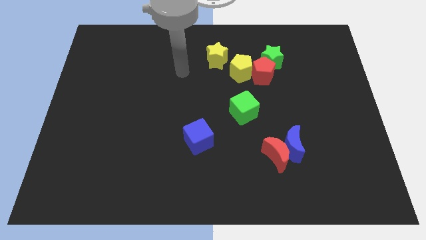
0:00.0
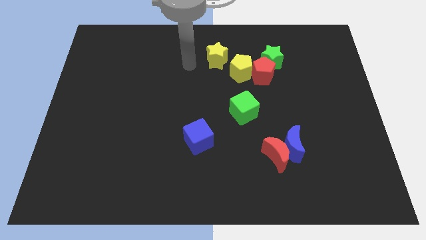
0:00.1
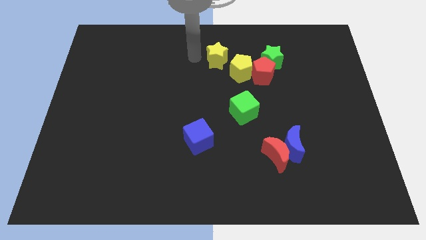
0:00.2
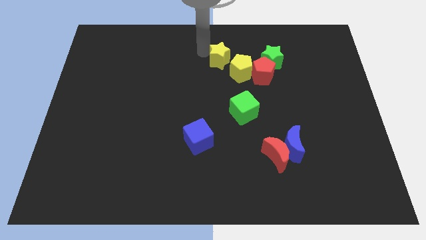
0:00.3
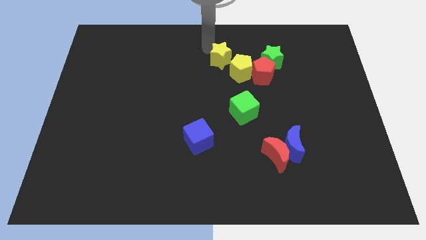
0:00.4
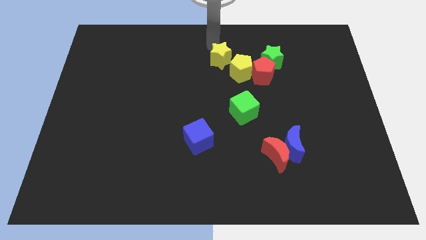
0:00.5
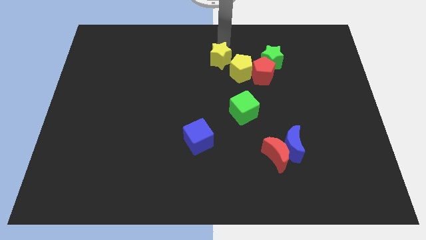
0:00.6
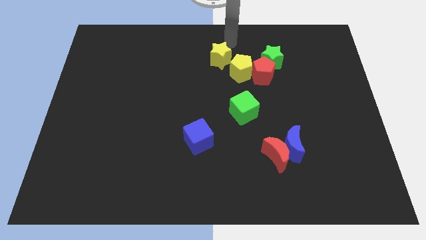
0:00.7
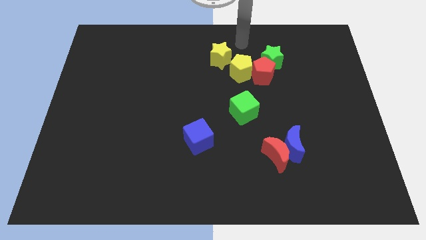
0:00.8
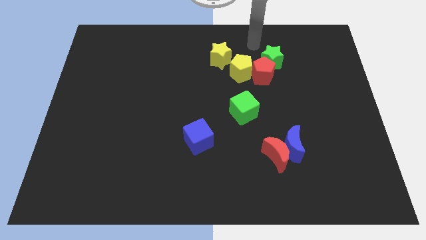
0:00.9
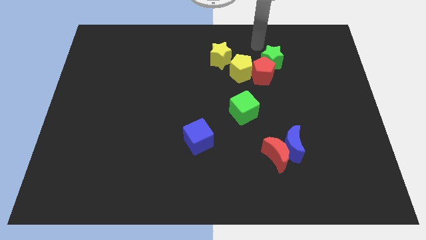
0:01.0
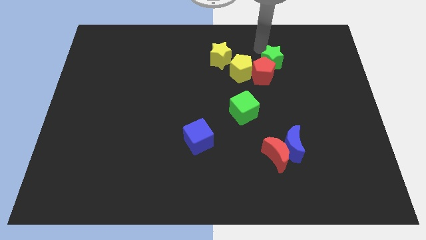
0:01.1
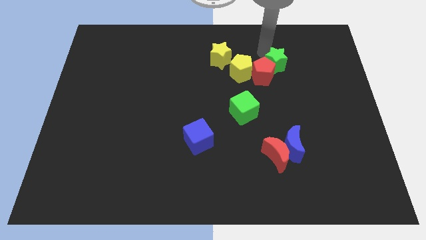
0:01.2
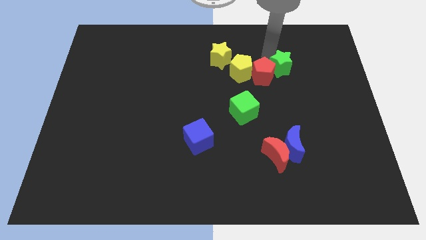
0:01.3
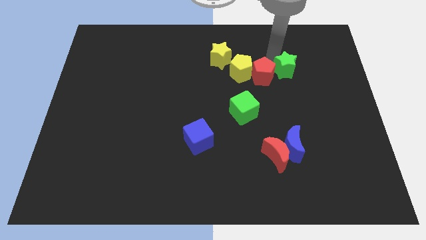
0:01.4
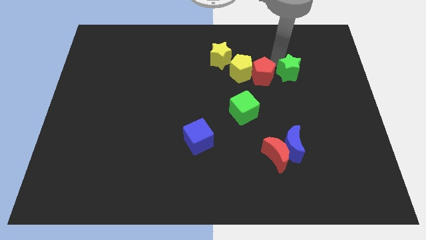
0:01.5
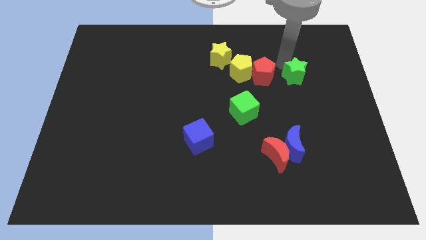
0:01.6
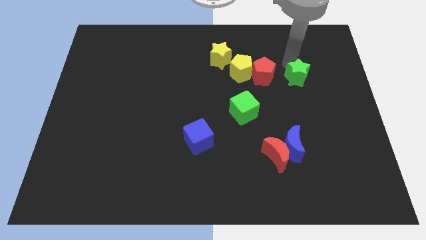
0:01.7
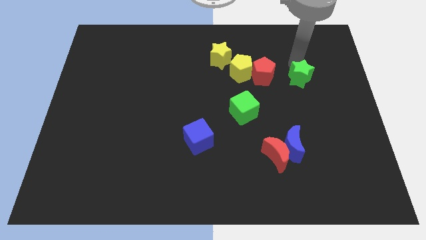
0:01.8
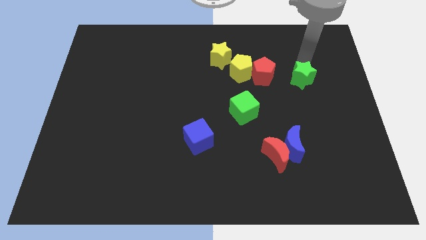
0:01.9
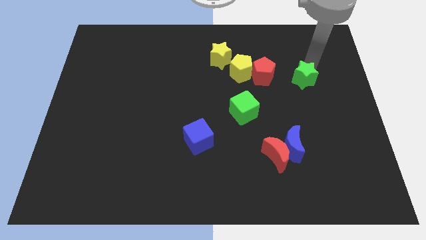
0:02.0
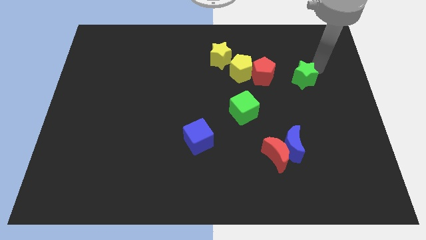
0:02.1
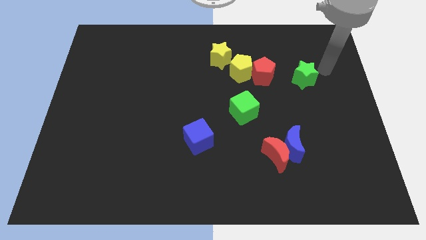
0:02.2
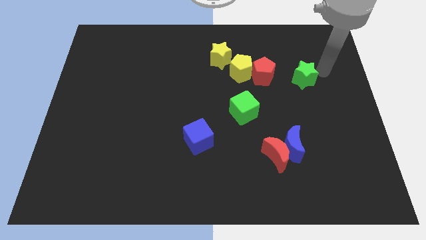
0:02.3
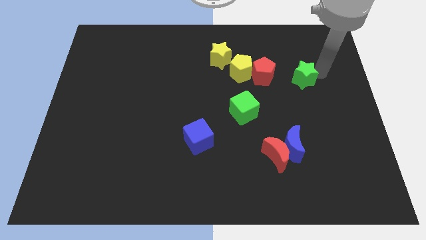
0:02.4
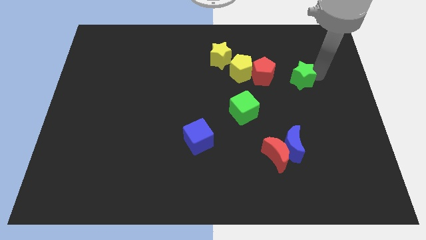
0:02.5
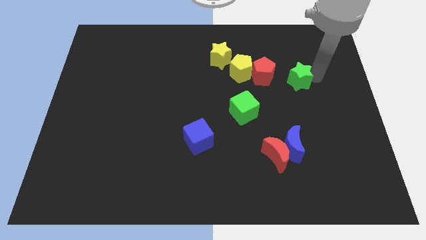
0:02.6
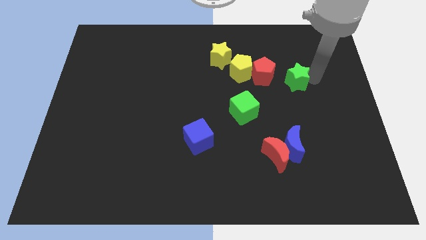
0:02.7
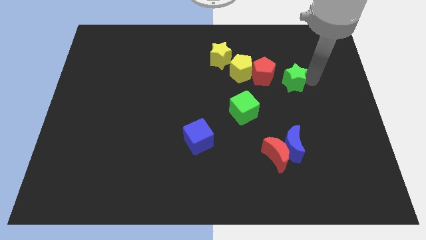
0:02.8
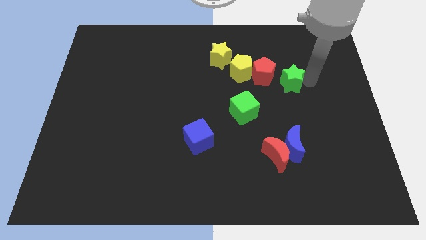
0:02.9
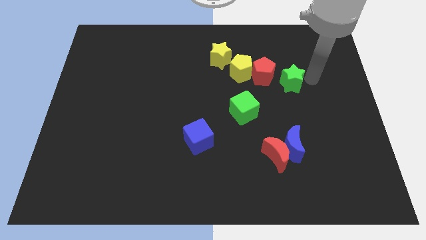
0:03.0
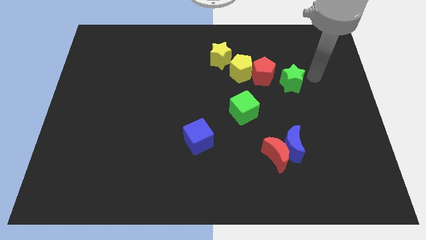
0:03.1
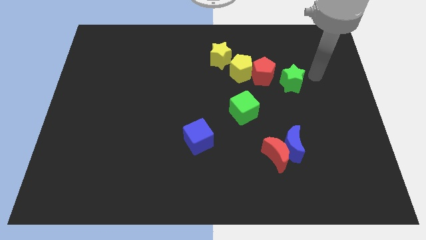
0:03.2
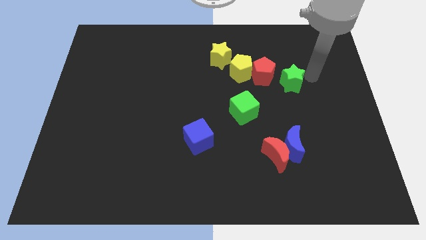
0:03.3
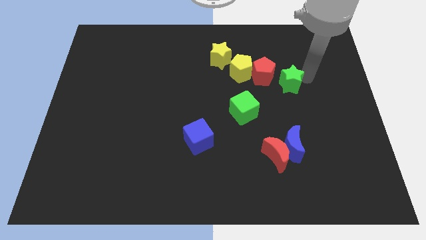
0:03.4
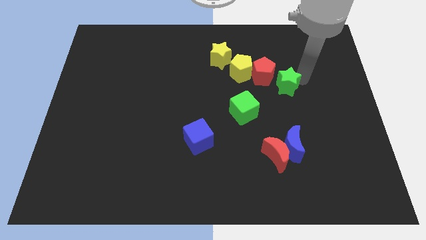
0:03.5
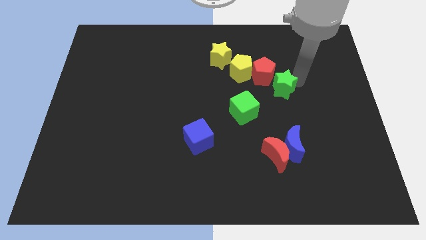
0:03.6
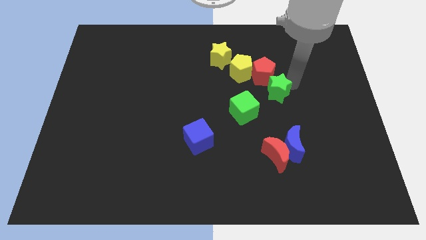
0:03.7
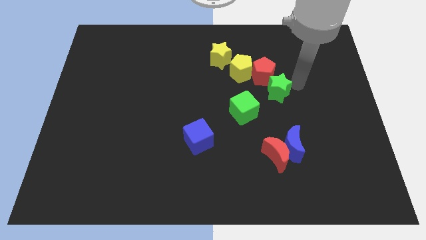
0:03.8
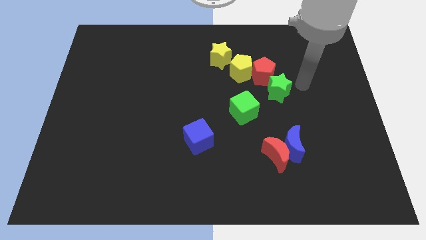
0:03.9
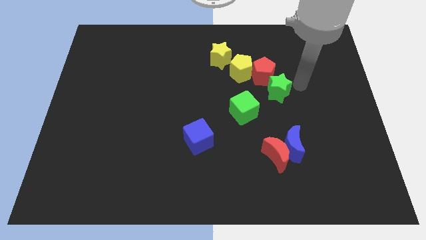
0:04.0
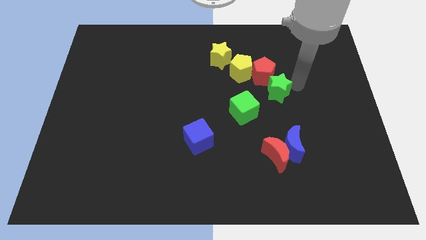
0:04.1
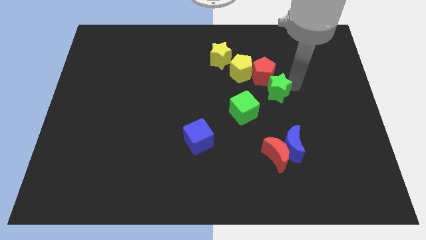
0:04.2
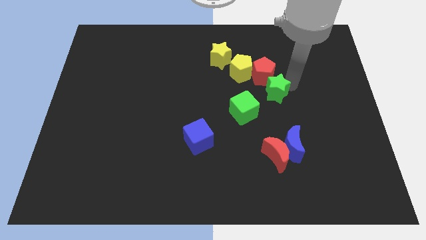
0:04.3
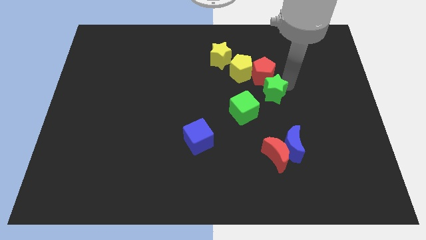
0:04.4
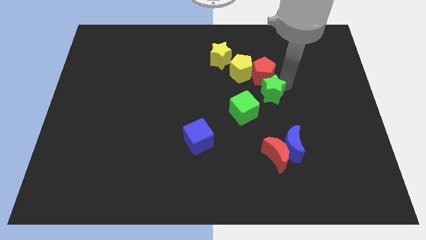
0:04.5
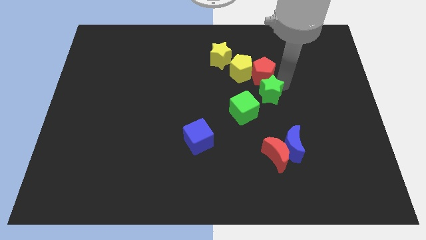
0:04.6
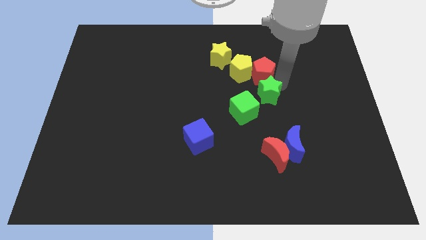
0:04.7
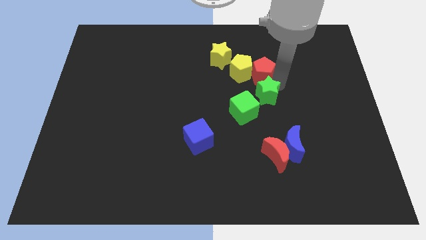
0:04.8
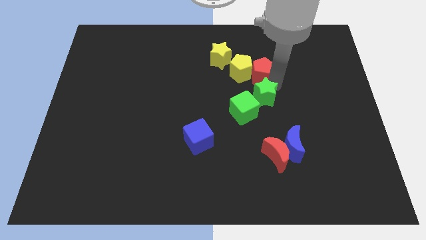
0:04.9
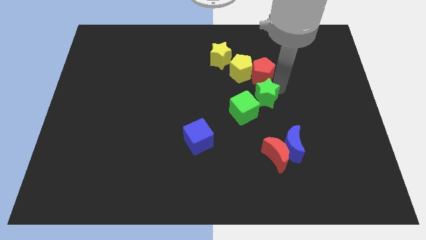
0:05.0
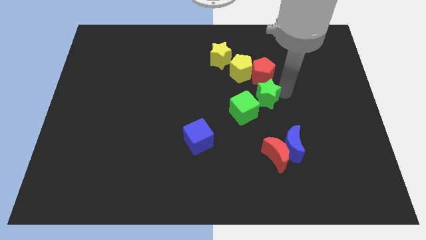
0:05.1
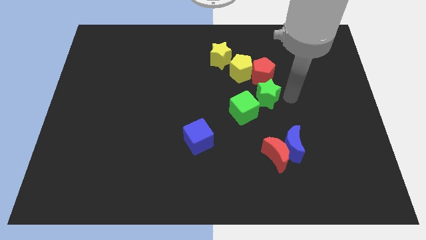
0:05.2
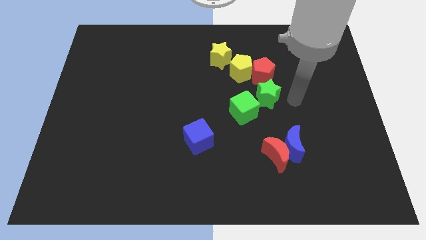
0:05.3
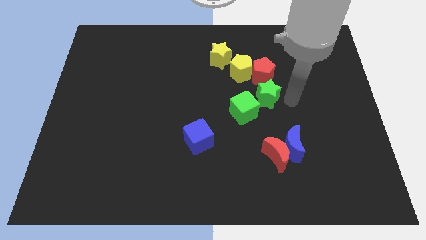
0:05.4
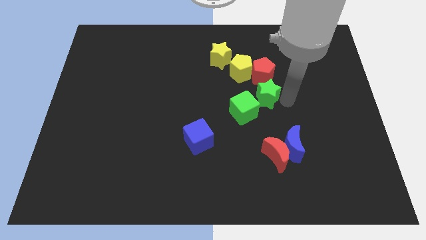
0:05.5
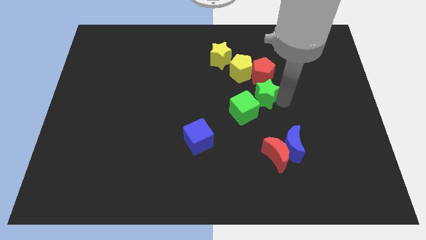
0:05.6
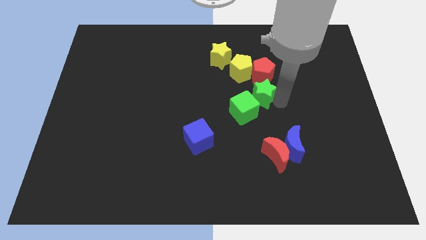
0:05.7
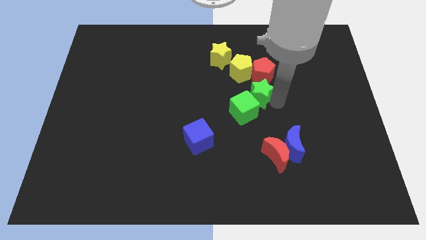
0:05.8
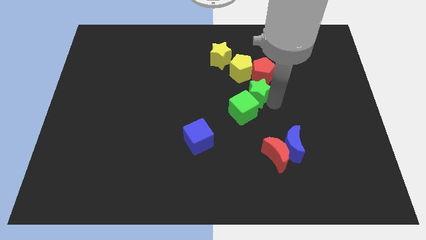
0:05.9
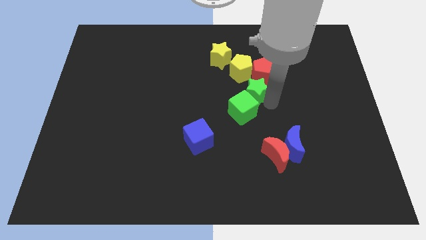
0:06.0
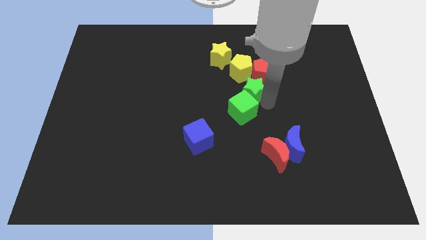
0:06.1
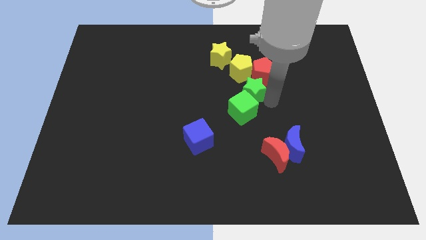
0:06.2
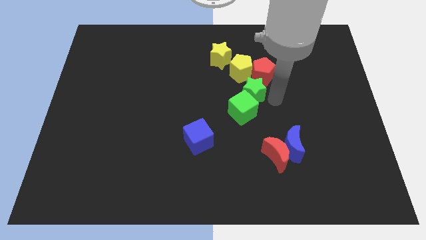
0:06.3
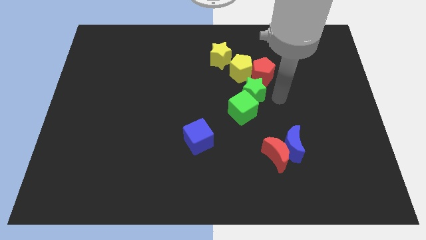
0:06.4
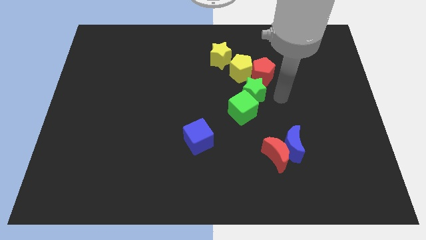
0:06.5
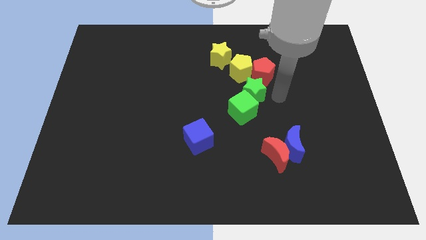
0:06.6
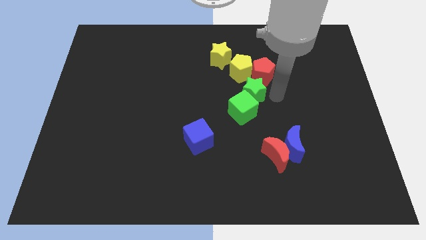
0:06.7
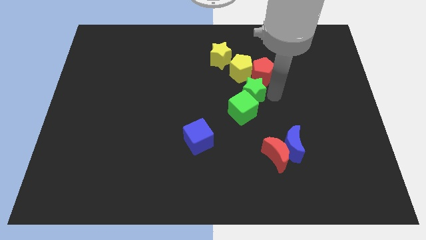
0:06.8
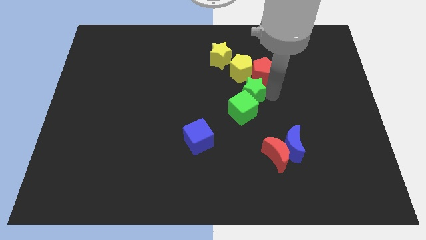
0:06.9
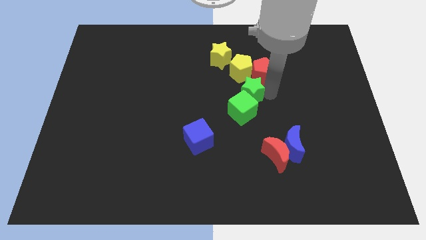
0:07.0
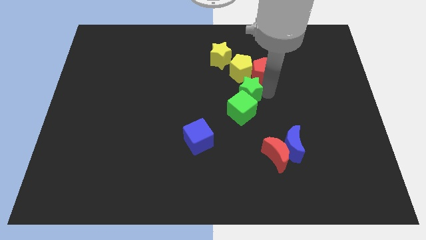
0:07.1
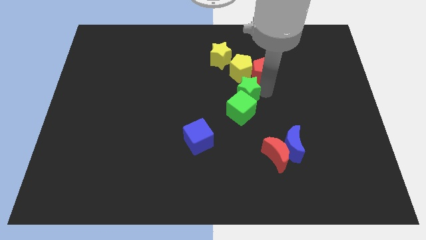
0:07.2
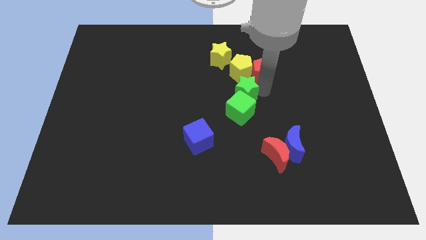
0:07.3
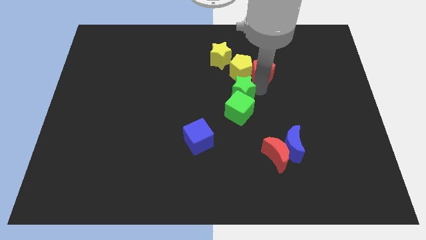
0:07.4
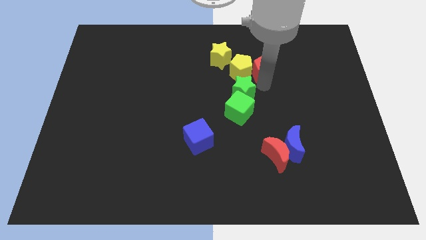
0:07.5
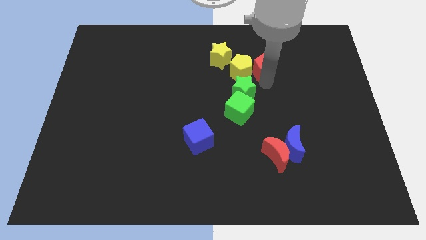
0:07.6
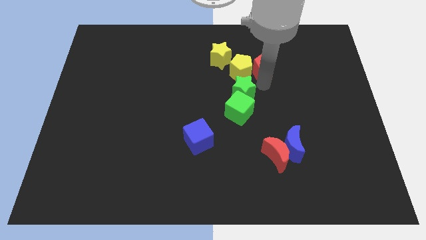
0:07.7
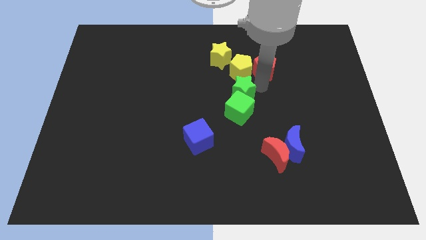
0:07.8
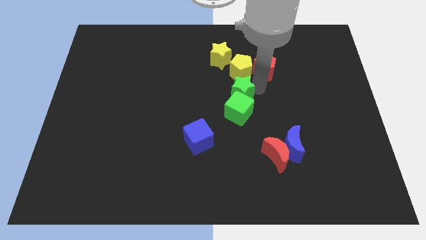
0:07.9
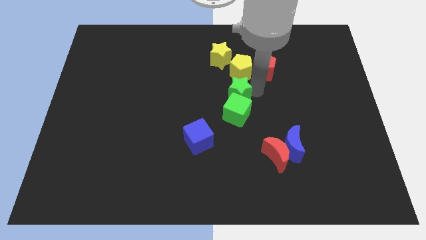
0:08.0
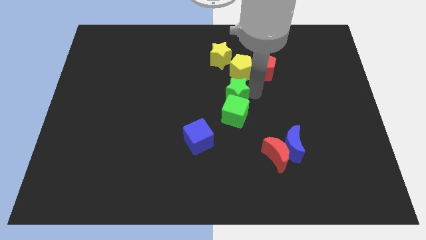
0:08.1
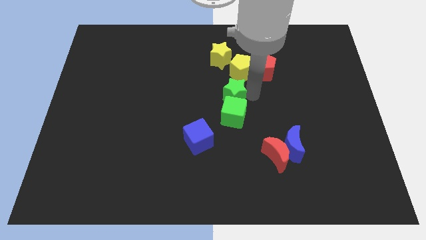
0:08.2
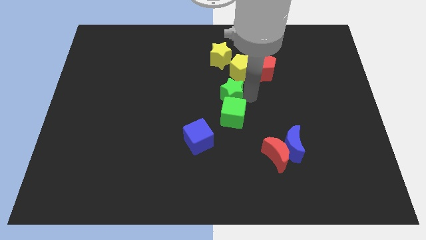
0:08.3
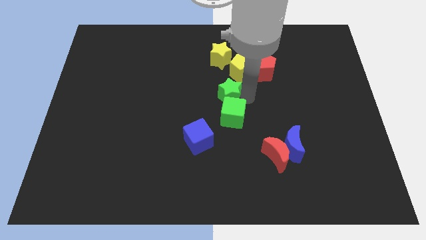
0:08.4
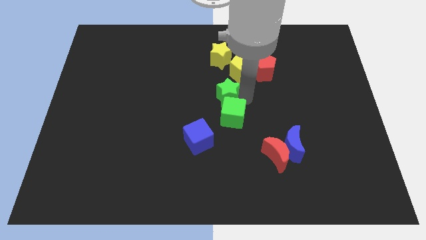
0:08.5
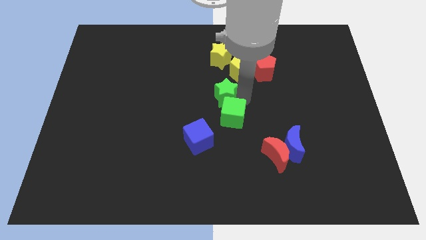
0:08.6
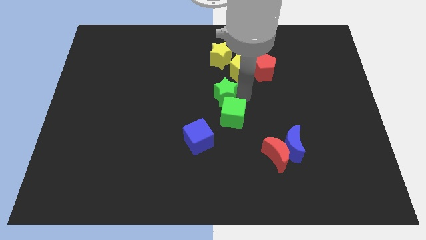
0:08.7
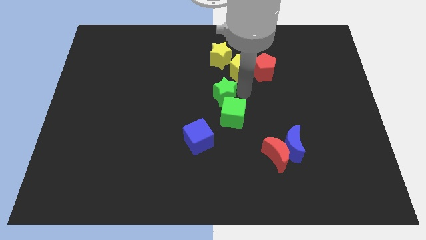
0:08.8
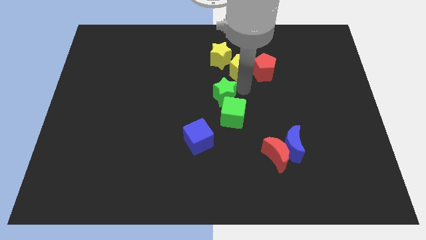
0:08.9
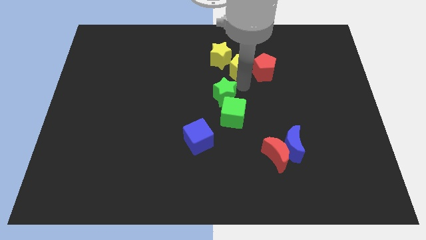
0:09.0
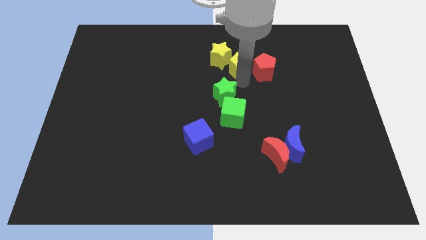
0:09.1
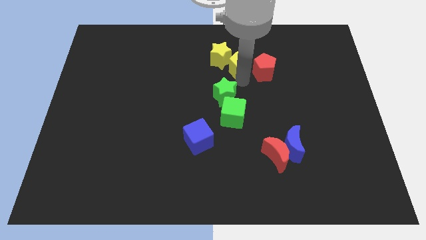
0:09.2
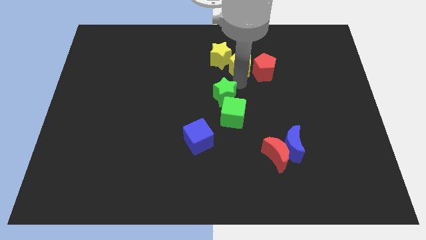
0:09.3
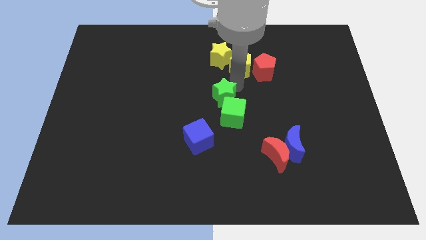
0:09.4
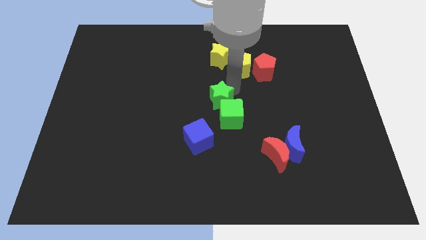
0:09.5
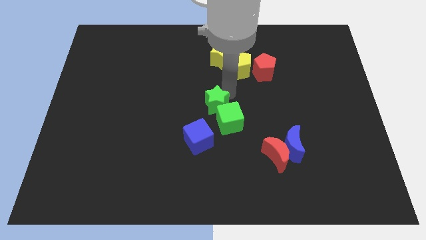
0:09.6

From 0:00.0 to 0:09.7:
move the green star downwards and to the left diagonally
